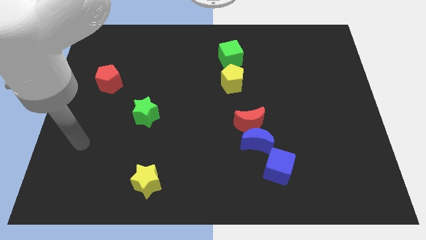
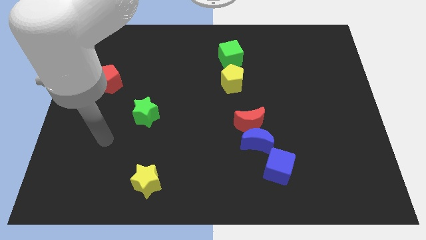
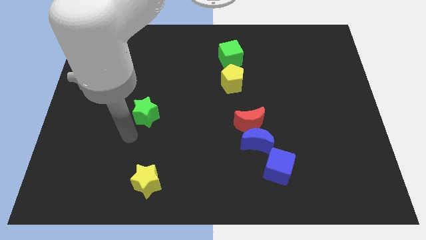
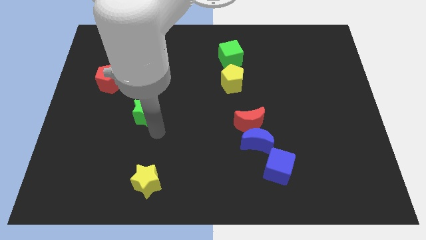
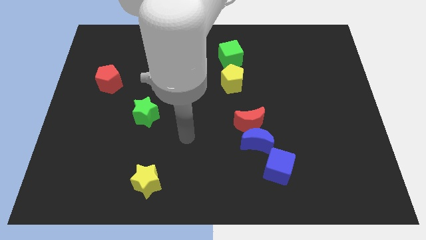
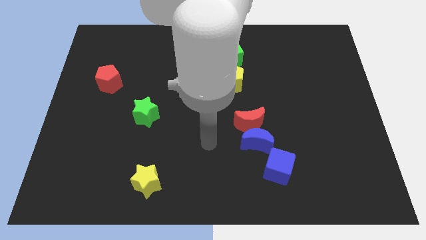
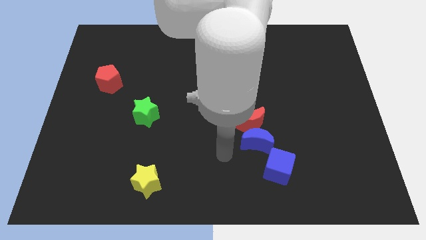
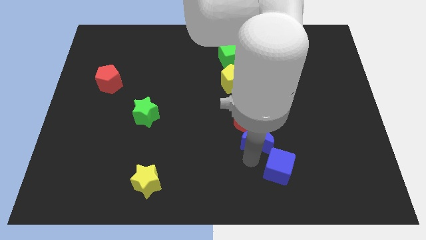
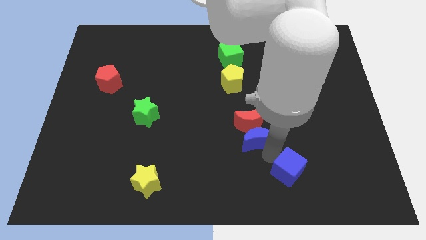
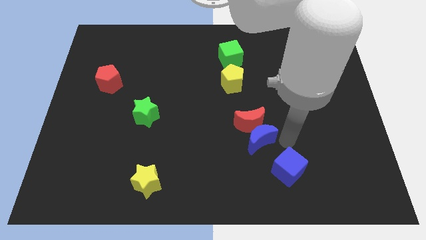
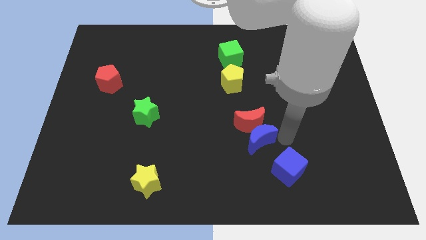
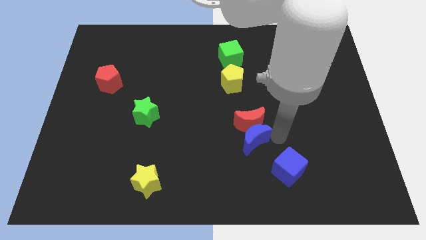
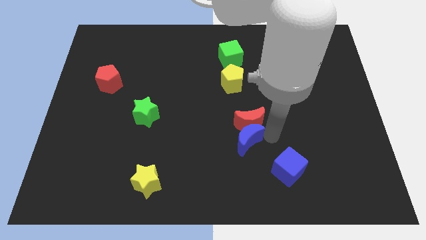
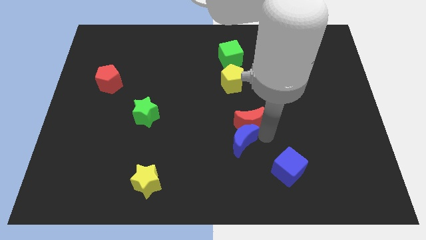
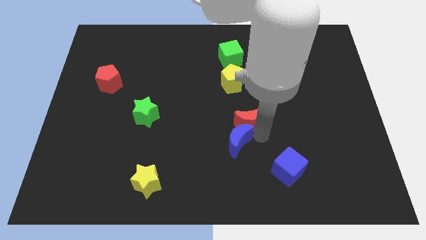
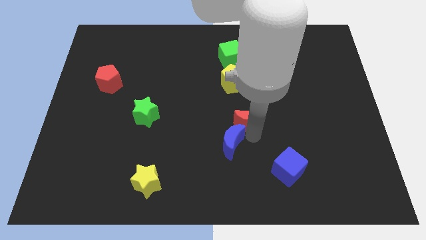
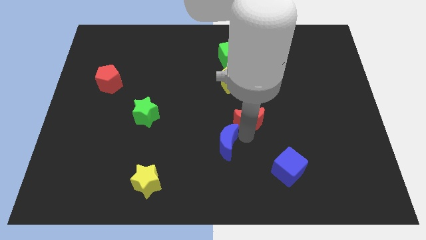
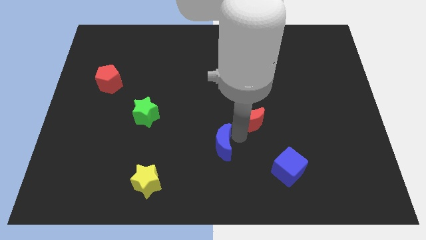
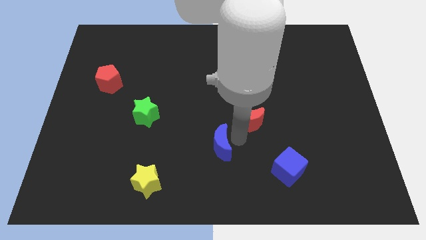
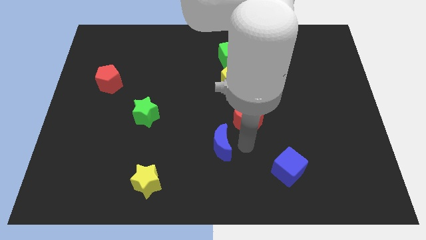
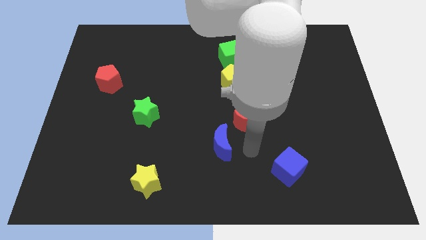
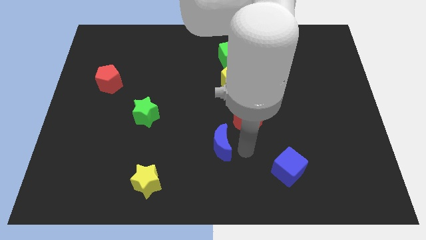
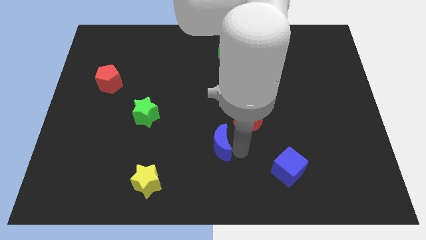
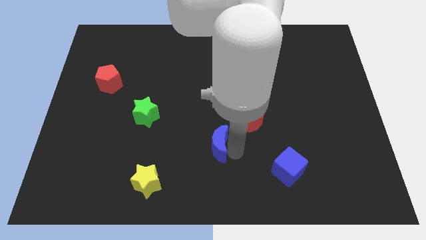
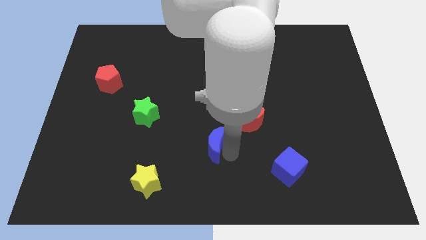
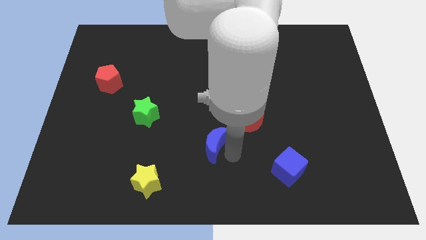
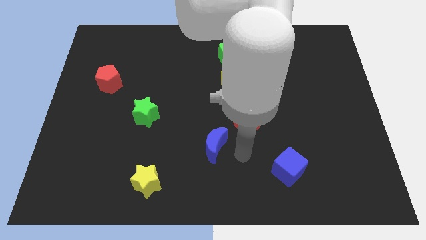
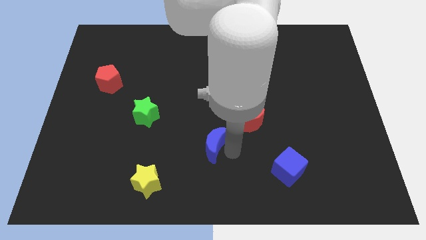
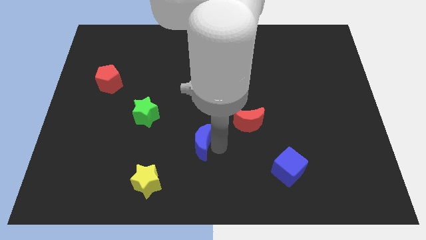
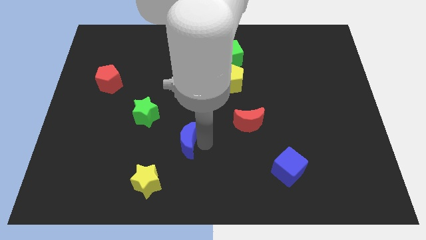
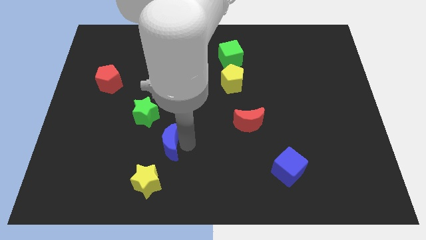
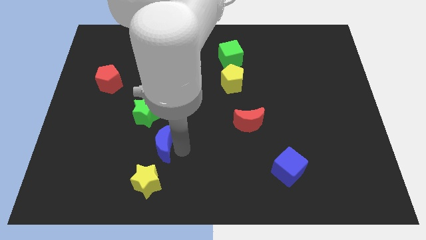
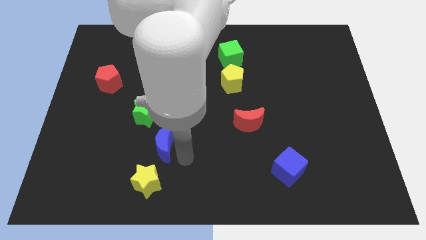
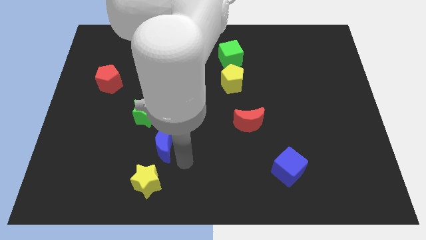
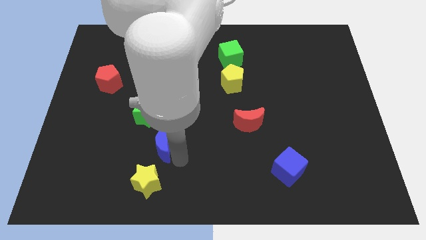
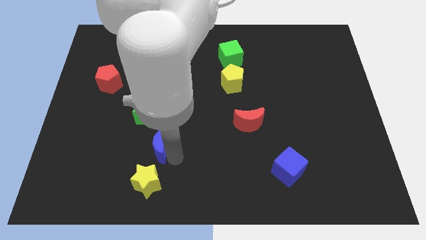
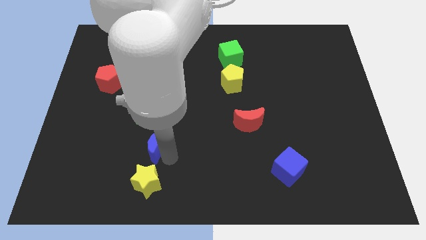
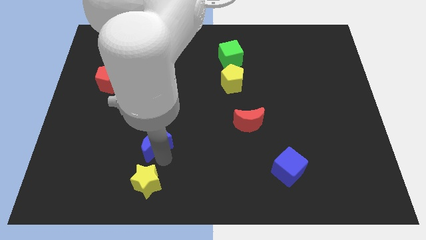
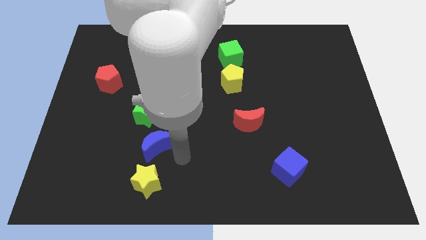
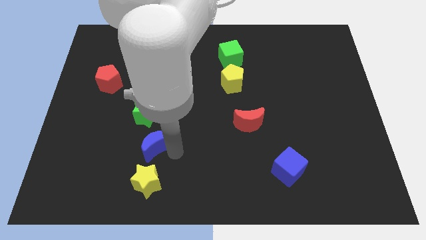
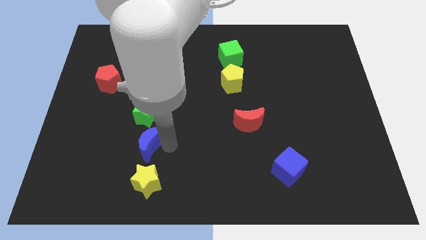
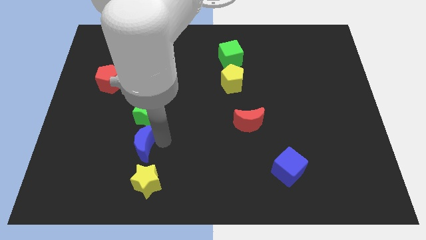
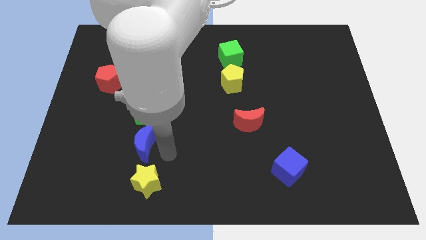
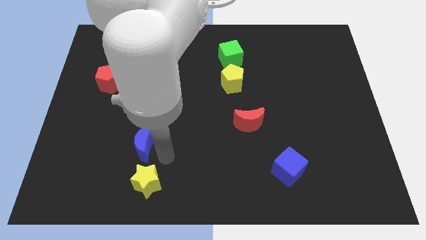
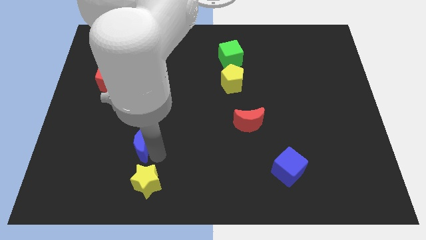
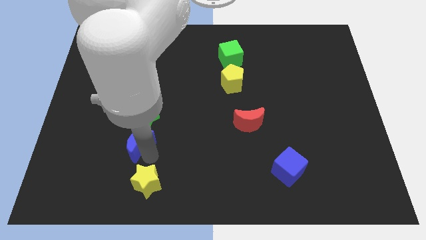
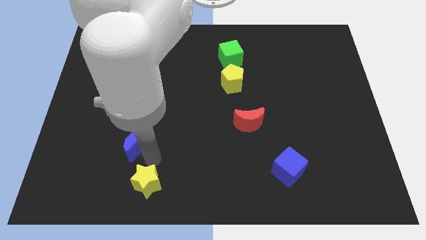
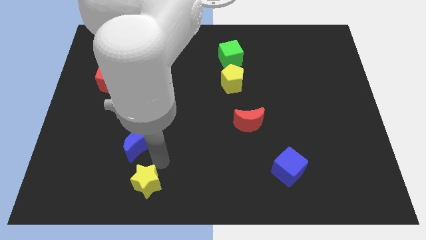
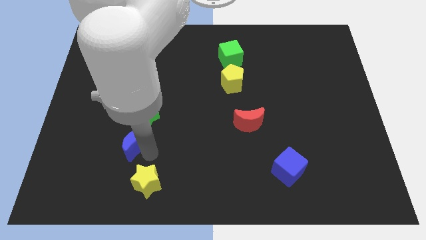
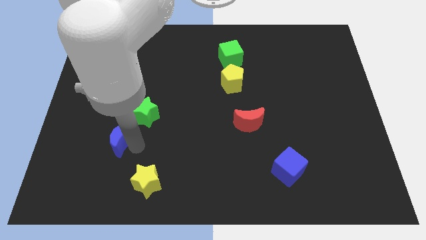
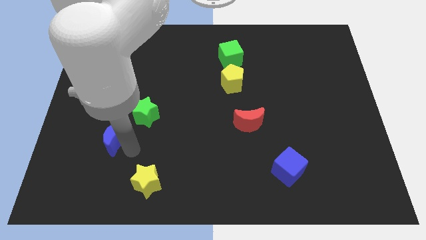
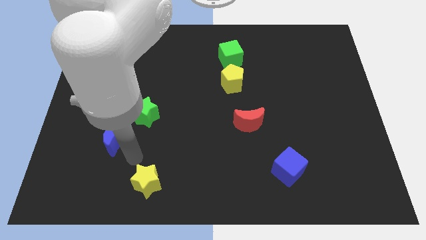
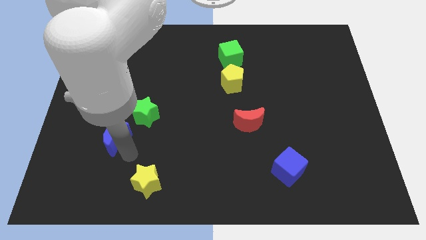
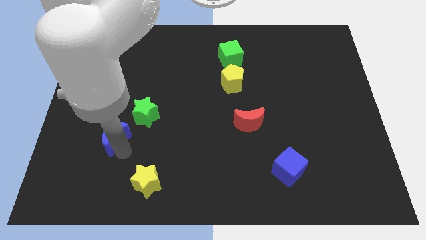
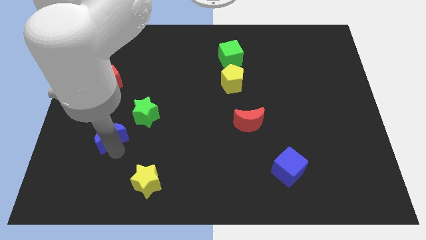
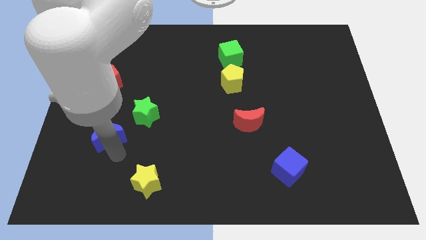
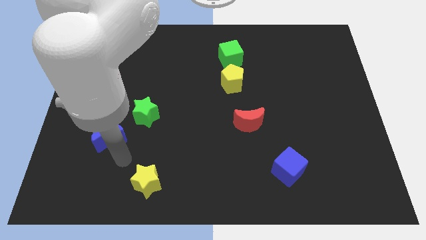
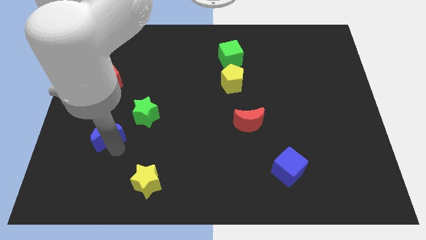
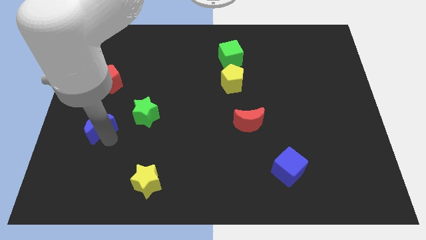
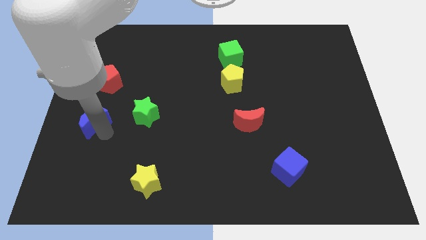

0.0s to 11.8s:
put the blue moon to the left side of the board
